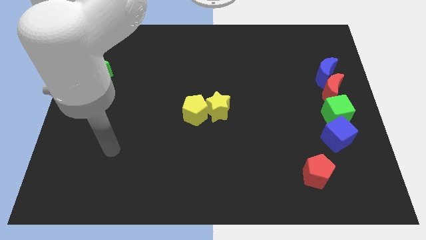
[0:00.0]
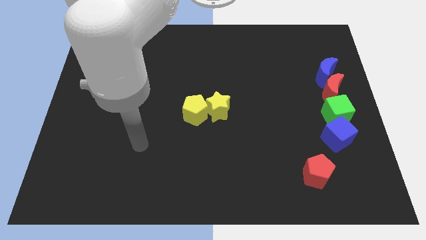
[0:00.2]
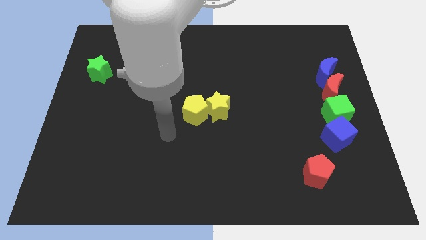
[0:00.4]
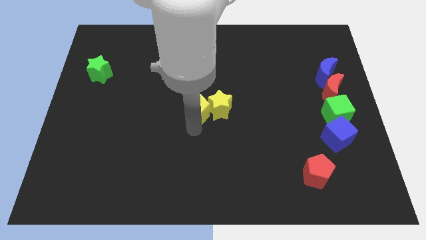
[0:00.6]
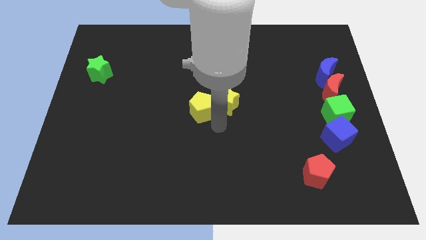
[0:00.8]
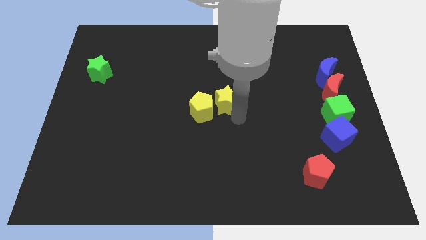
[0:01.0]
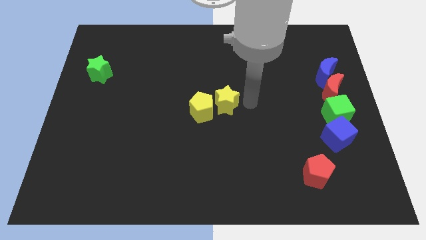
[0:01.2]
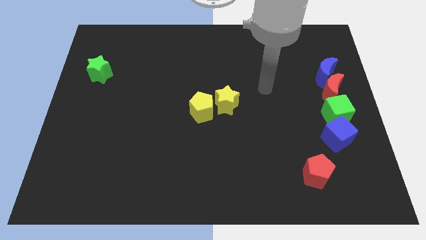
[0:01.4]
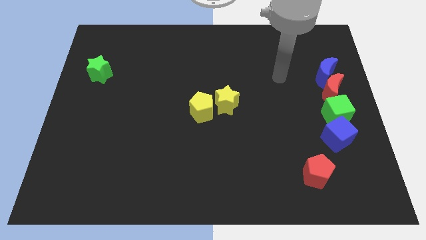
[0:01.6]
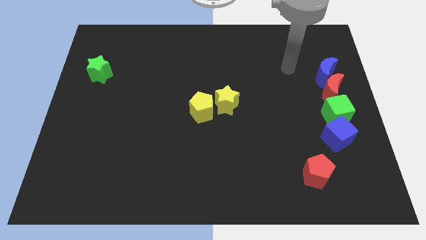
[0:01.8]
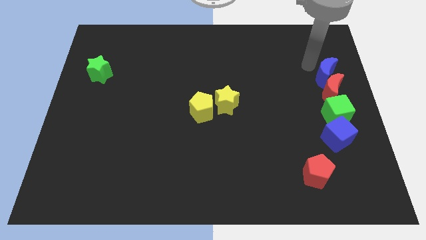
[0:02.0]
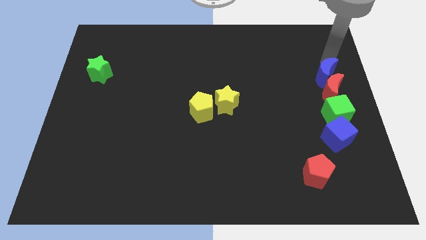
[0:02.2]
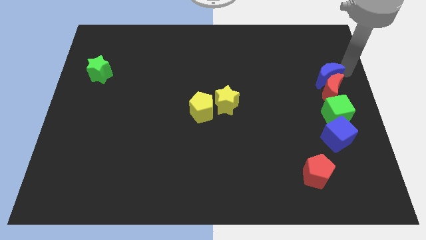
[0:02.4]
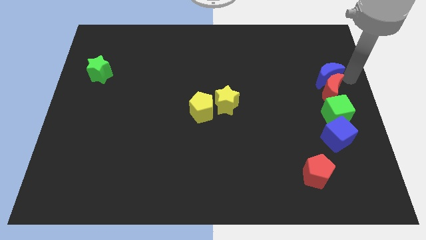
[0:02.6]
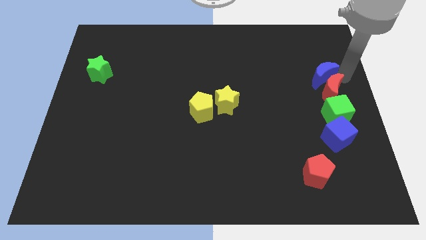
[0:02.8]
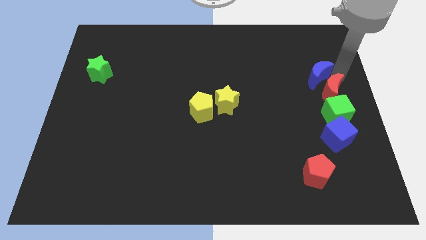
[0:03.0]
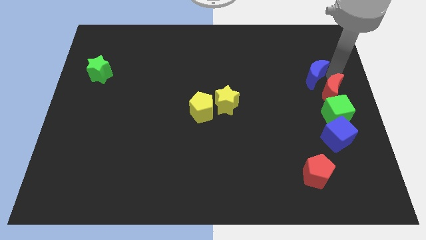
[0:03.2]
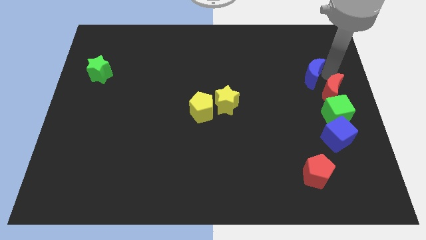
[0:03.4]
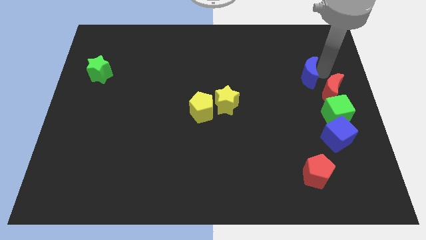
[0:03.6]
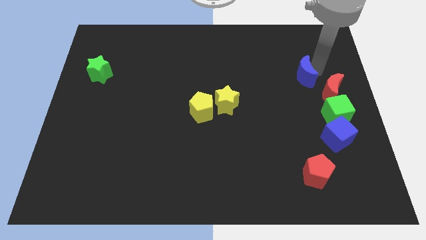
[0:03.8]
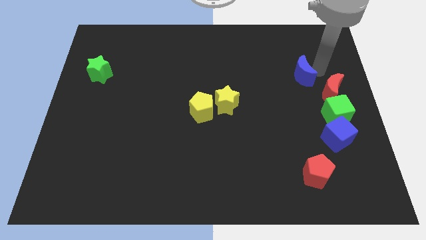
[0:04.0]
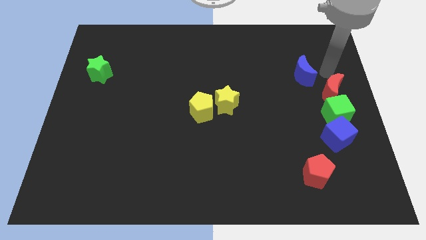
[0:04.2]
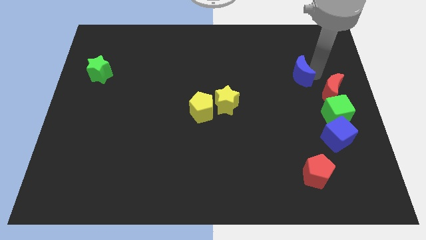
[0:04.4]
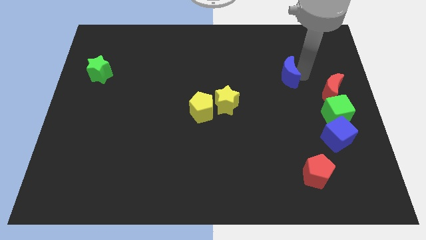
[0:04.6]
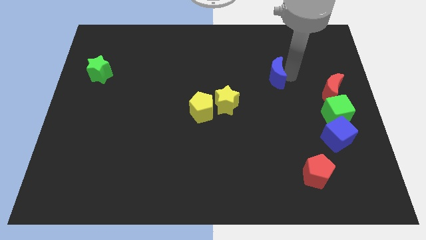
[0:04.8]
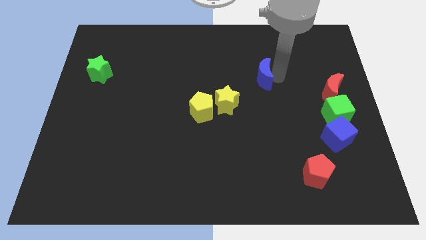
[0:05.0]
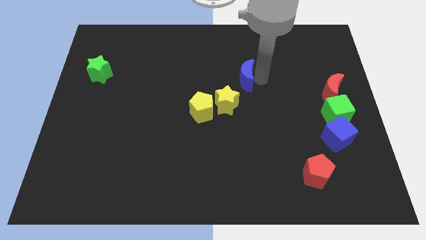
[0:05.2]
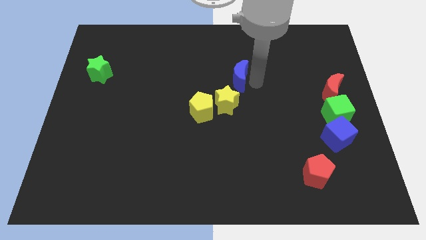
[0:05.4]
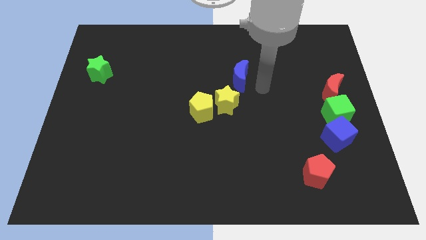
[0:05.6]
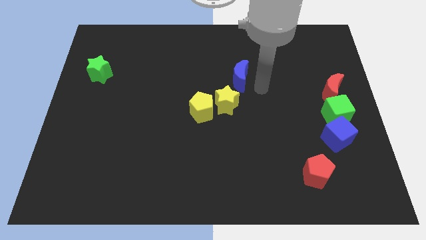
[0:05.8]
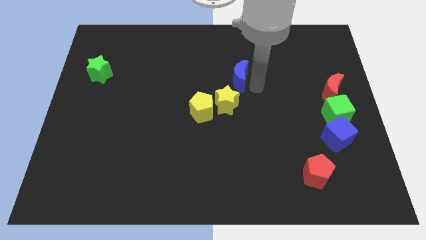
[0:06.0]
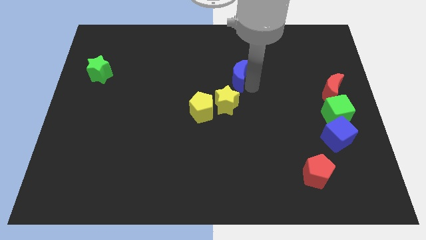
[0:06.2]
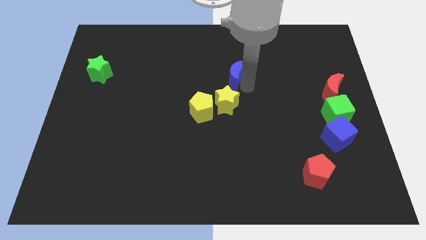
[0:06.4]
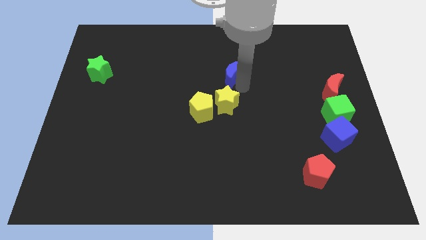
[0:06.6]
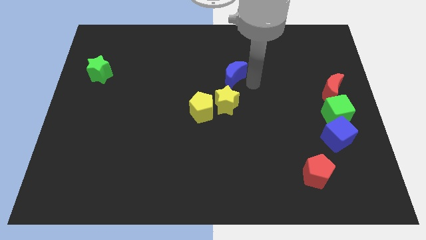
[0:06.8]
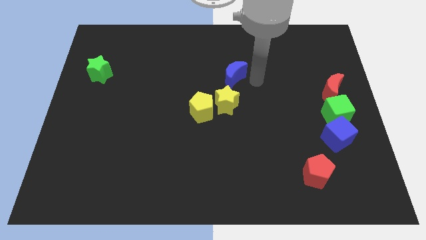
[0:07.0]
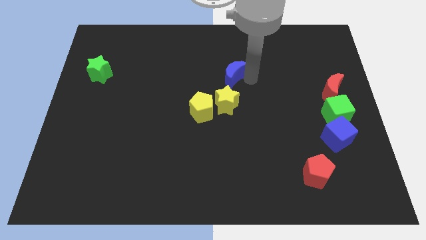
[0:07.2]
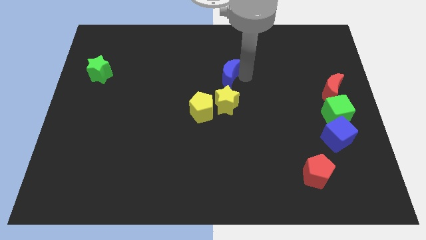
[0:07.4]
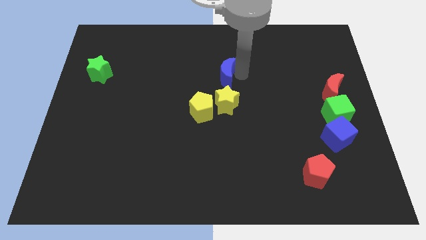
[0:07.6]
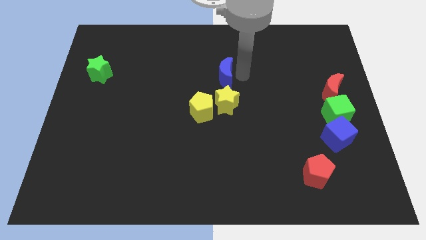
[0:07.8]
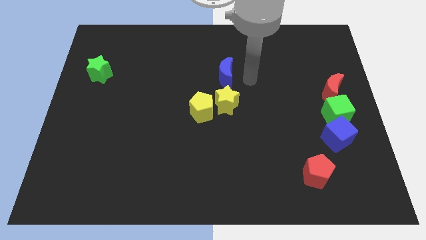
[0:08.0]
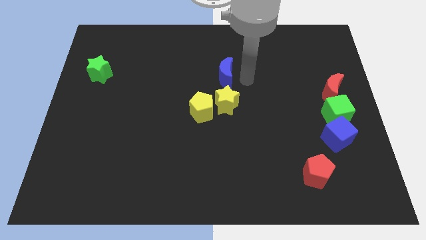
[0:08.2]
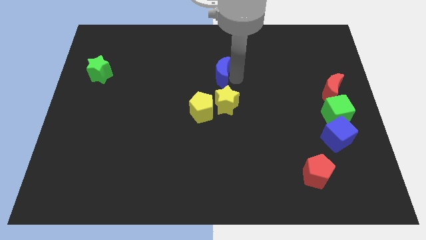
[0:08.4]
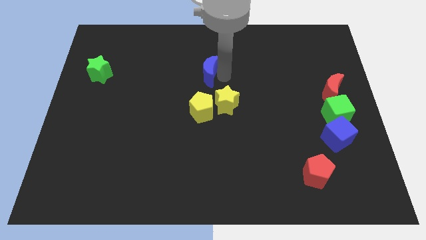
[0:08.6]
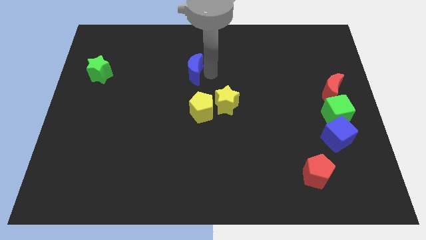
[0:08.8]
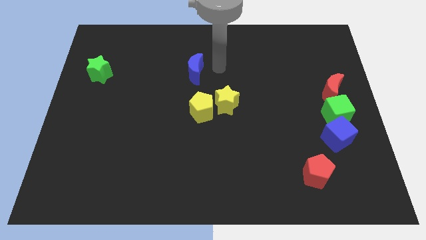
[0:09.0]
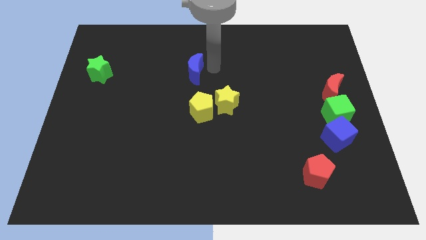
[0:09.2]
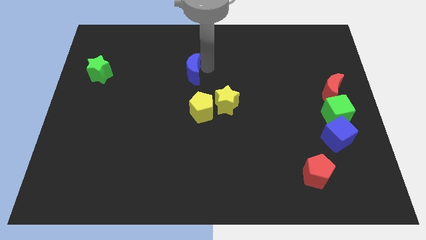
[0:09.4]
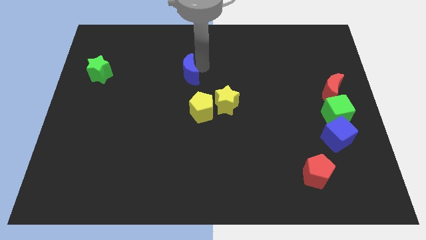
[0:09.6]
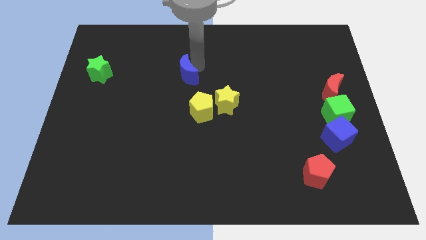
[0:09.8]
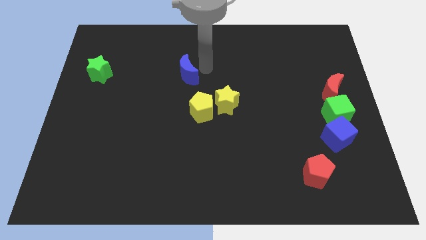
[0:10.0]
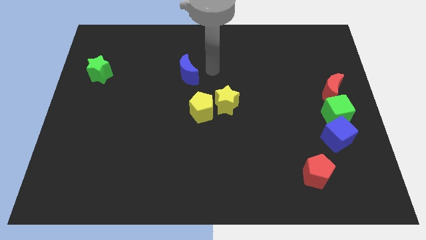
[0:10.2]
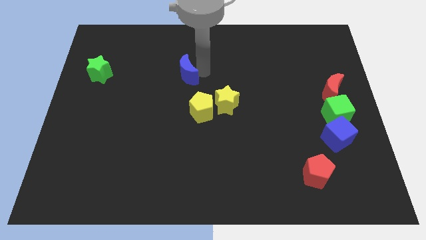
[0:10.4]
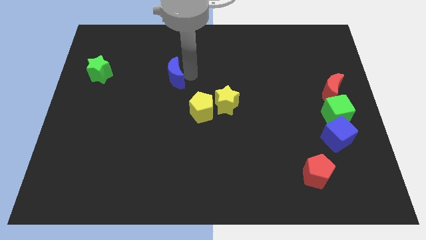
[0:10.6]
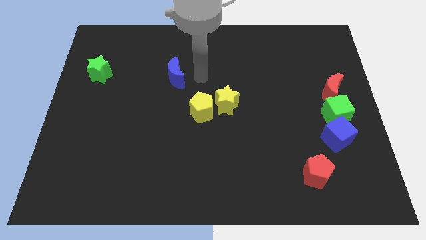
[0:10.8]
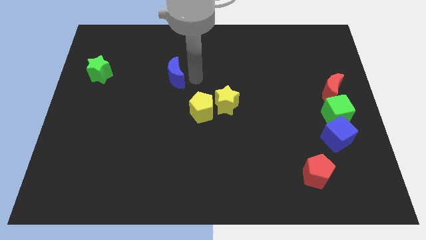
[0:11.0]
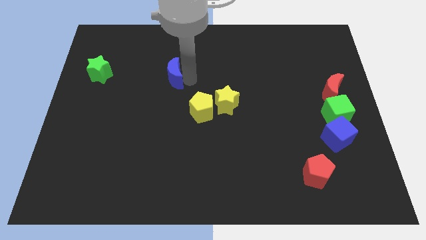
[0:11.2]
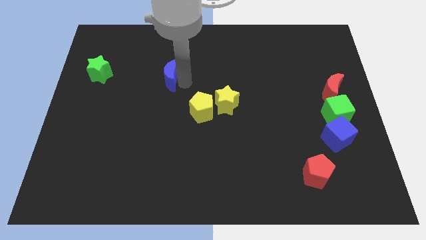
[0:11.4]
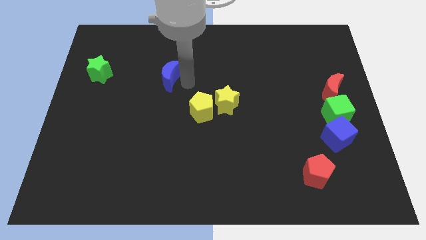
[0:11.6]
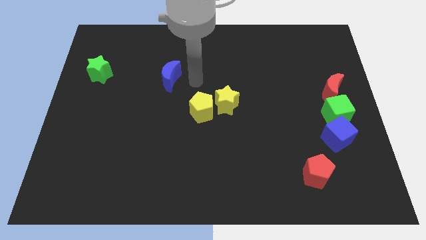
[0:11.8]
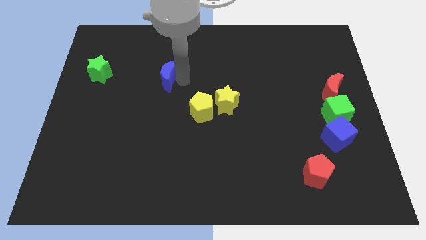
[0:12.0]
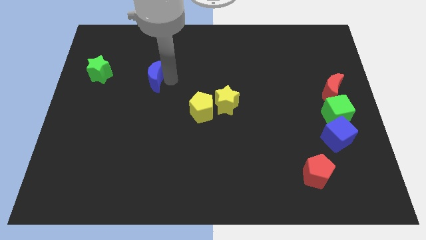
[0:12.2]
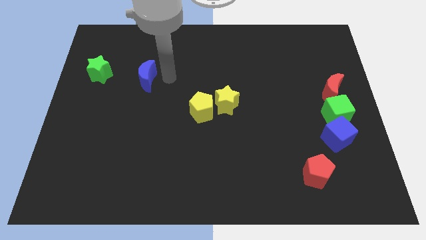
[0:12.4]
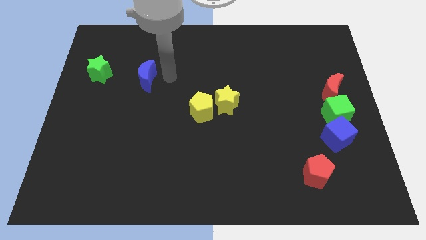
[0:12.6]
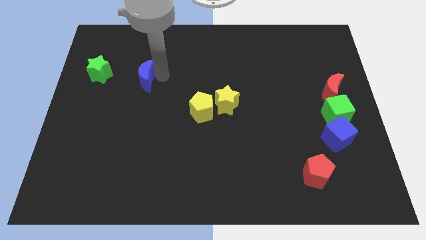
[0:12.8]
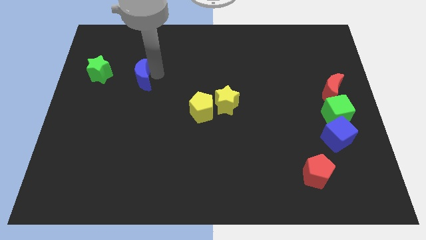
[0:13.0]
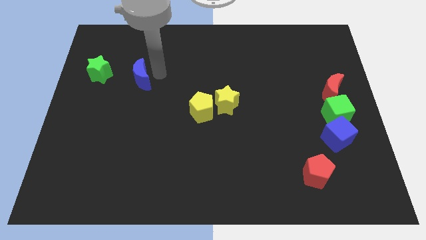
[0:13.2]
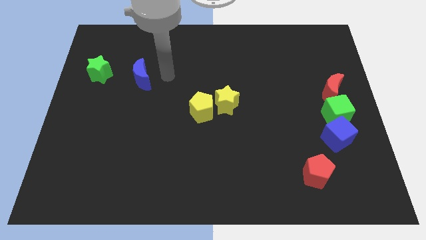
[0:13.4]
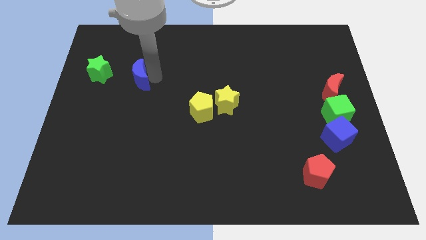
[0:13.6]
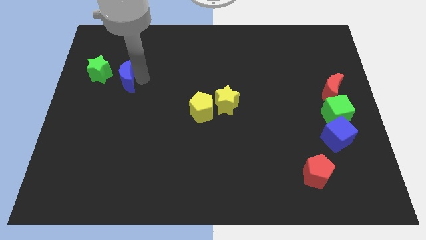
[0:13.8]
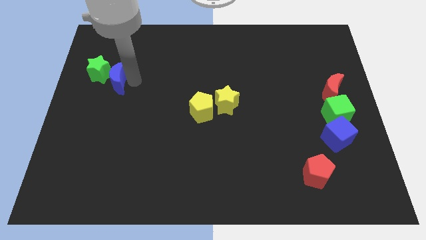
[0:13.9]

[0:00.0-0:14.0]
slide the blue moon close to the green star

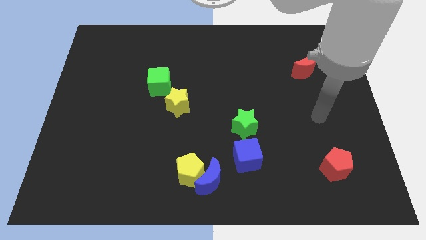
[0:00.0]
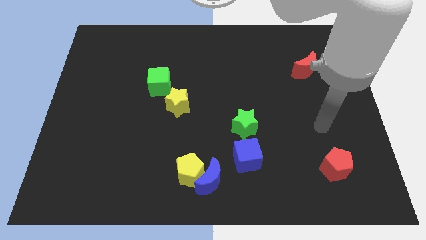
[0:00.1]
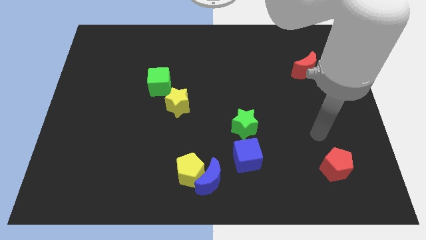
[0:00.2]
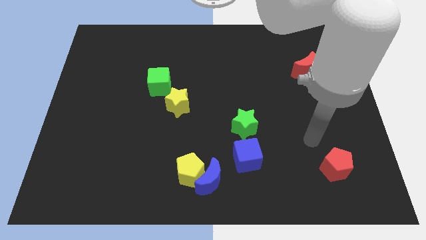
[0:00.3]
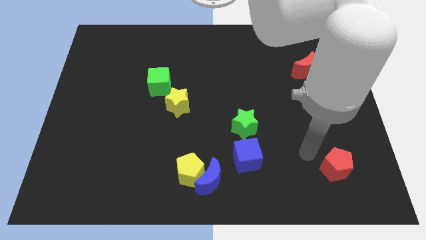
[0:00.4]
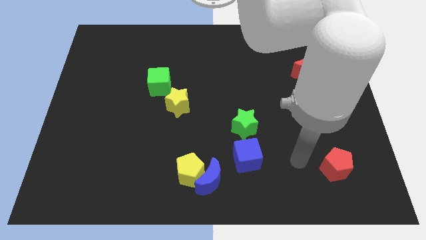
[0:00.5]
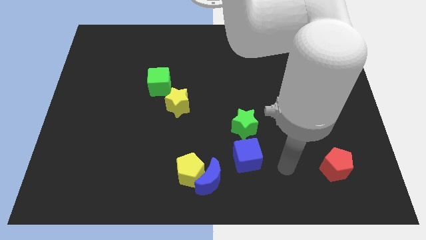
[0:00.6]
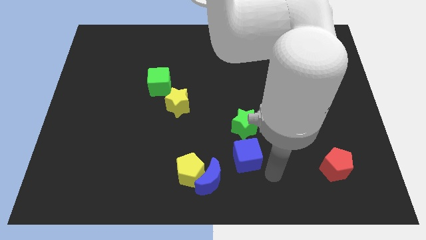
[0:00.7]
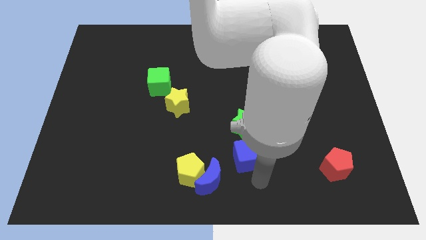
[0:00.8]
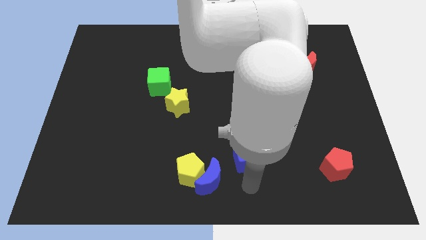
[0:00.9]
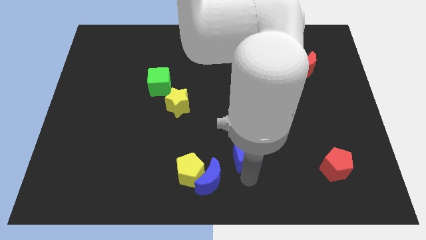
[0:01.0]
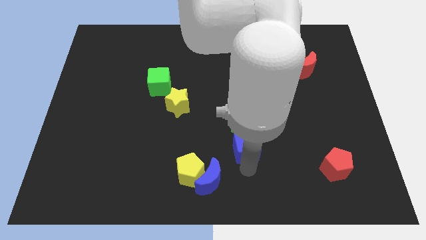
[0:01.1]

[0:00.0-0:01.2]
put the blue cube close to the green star
